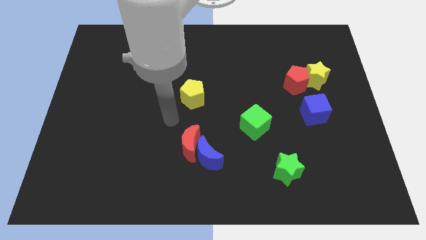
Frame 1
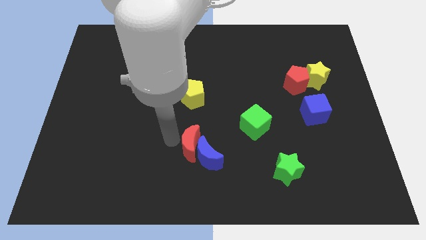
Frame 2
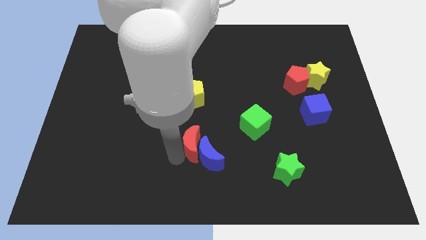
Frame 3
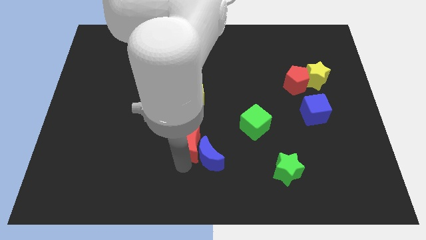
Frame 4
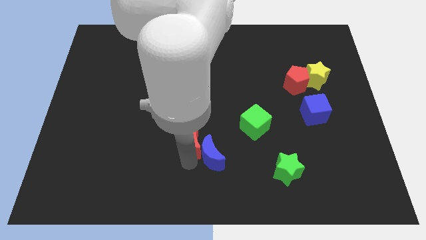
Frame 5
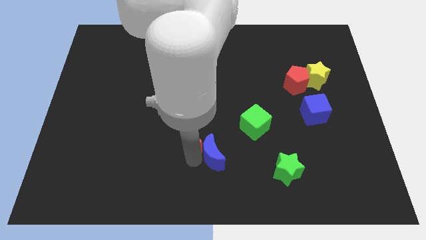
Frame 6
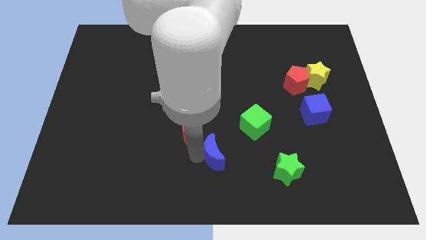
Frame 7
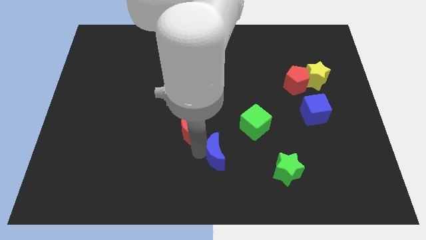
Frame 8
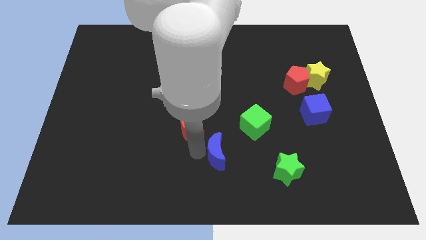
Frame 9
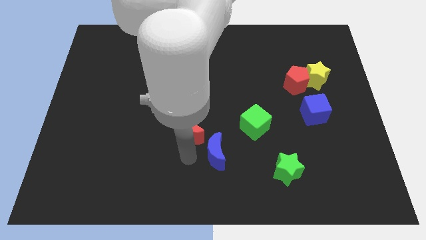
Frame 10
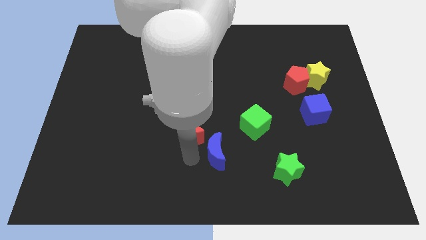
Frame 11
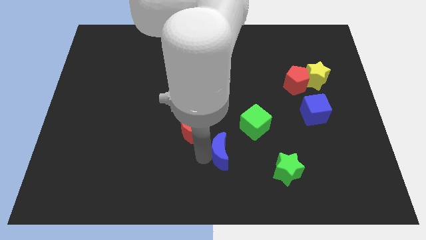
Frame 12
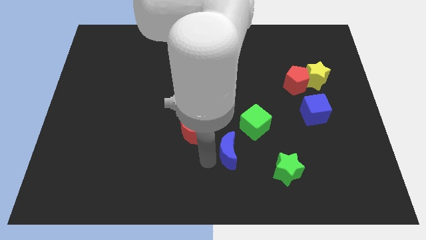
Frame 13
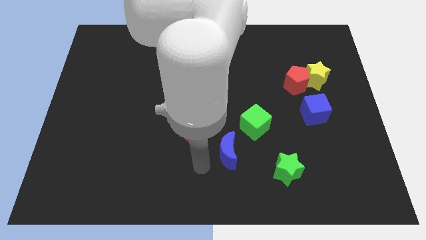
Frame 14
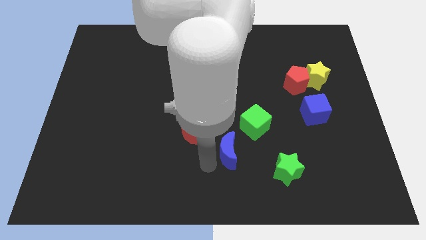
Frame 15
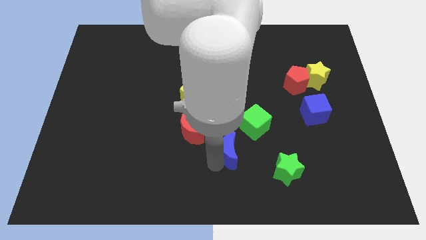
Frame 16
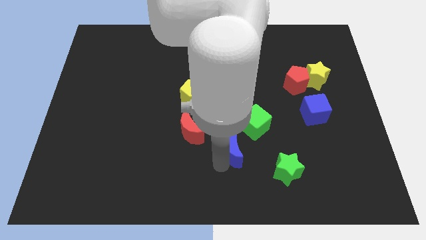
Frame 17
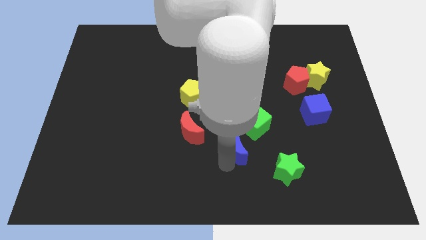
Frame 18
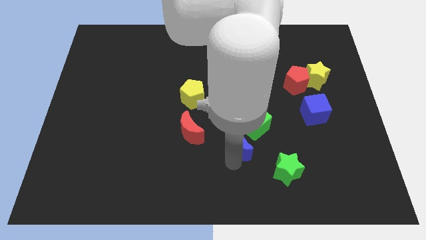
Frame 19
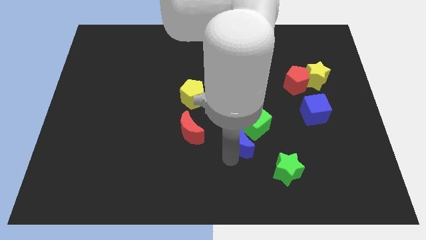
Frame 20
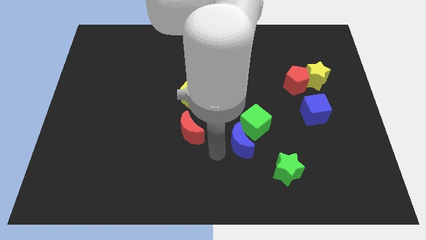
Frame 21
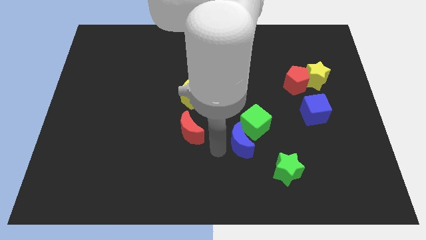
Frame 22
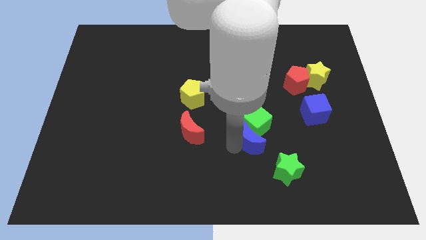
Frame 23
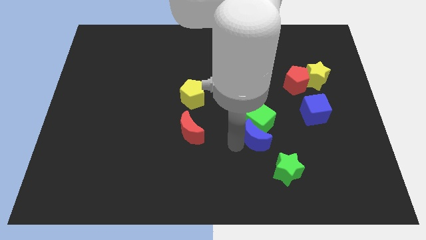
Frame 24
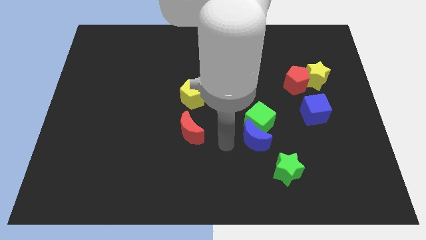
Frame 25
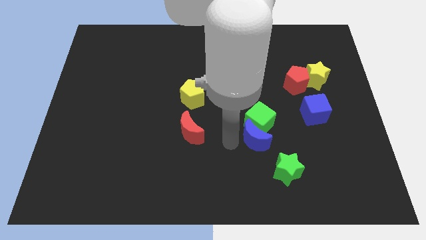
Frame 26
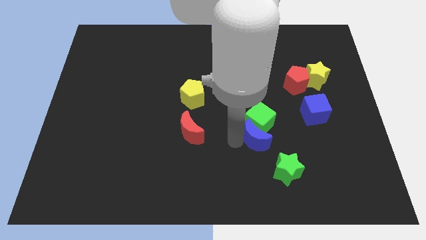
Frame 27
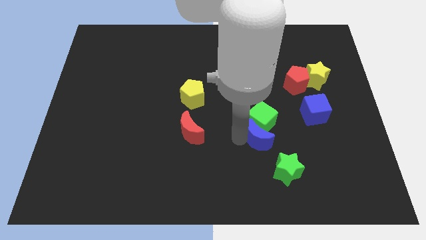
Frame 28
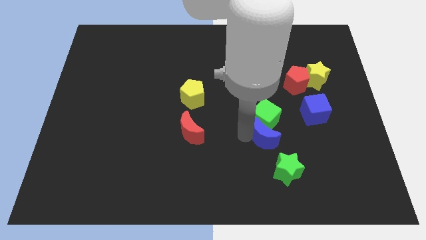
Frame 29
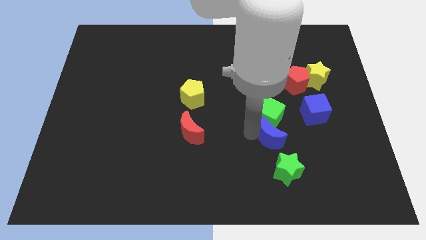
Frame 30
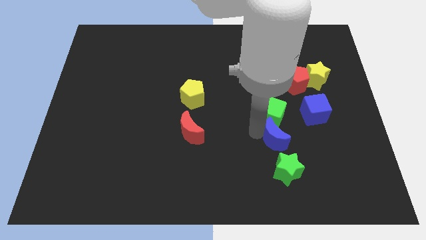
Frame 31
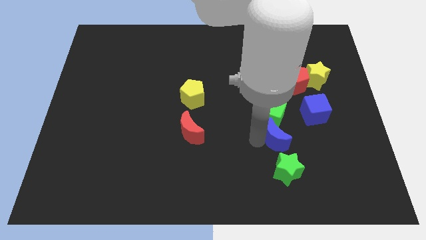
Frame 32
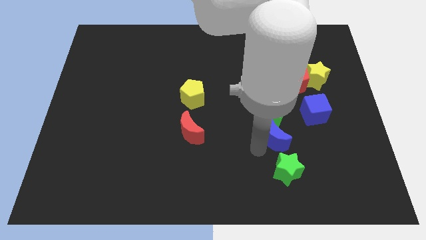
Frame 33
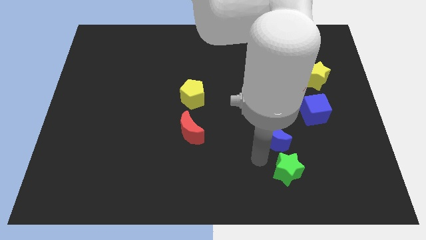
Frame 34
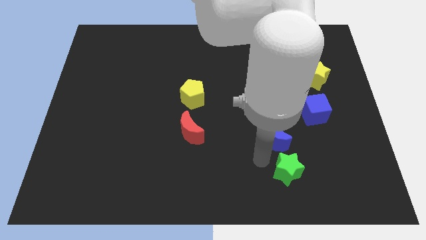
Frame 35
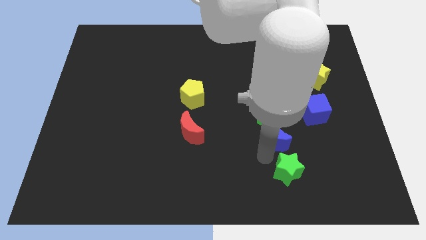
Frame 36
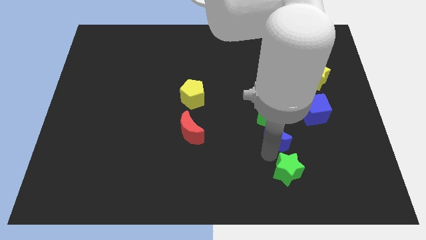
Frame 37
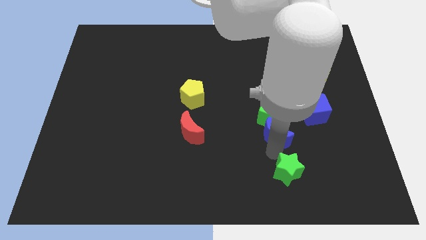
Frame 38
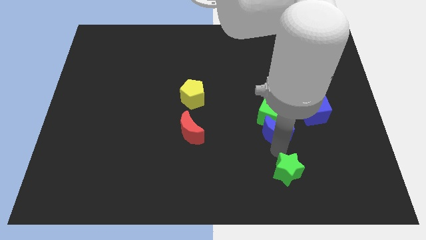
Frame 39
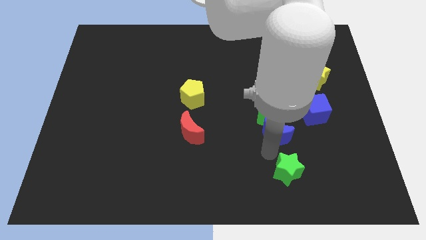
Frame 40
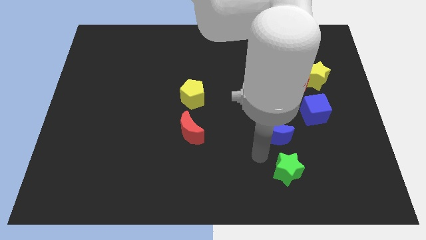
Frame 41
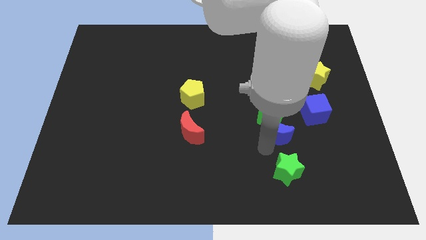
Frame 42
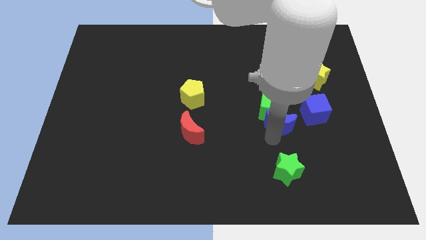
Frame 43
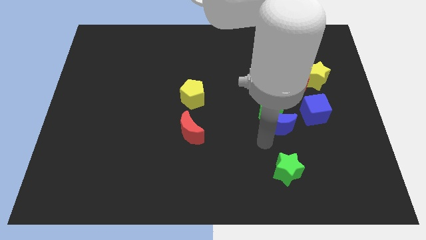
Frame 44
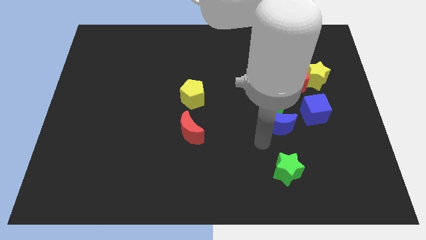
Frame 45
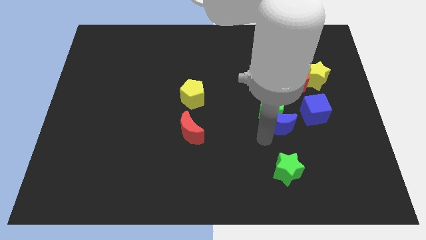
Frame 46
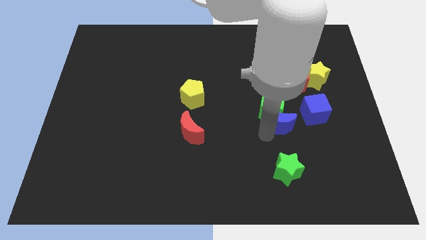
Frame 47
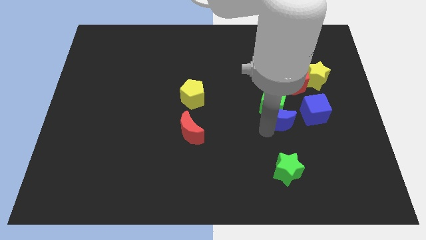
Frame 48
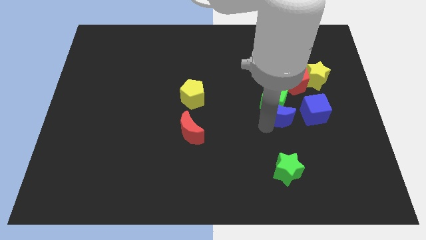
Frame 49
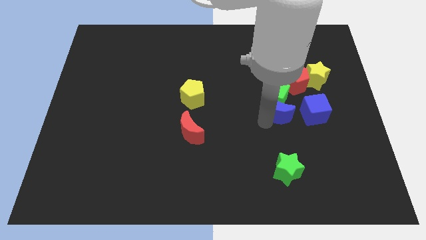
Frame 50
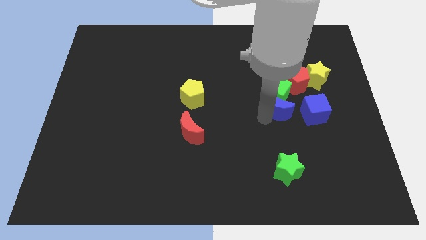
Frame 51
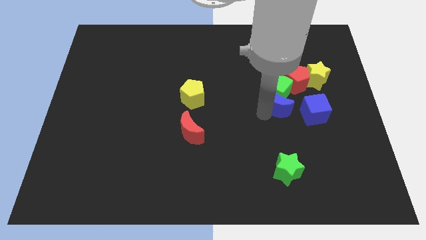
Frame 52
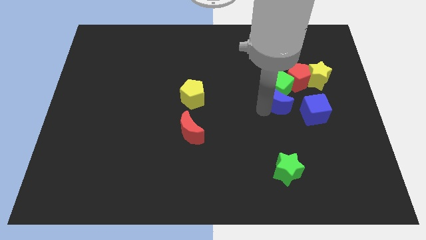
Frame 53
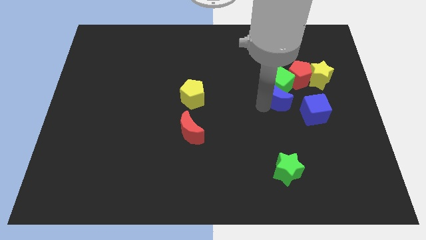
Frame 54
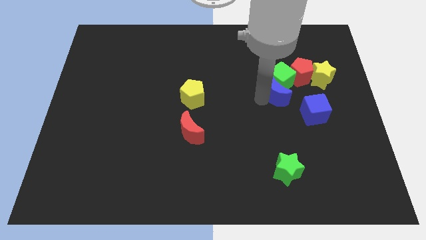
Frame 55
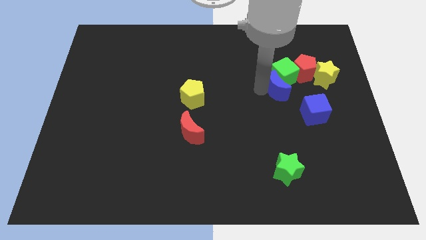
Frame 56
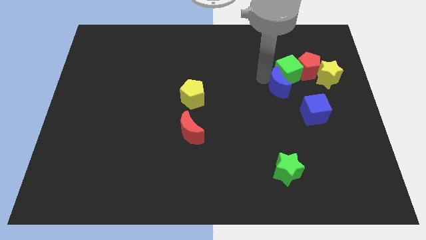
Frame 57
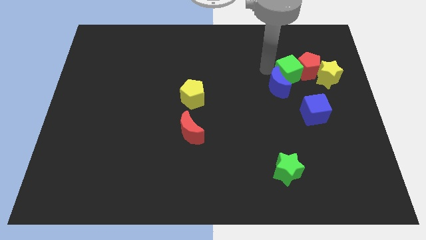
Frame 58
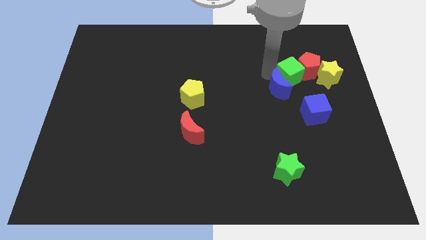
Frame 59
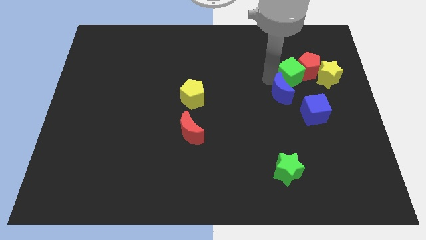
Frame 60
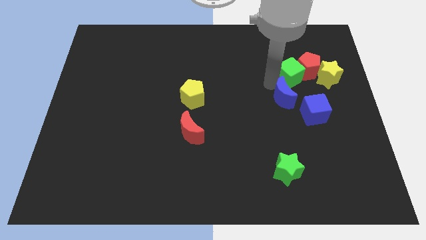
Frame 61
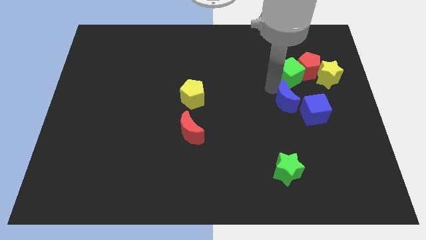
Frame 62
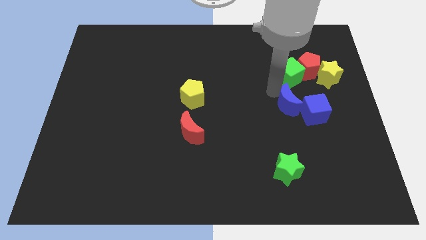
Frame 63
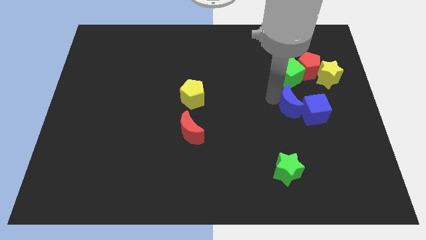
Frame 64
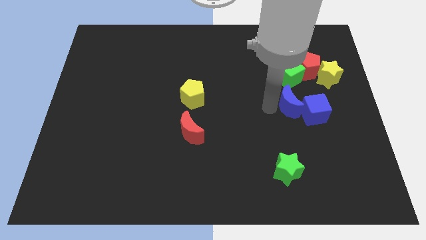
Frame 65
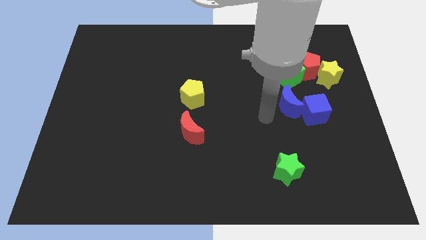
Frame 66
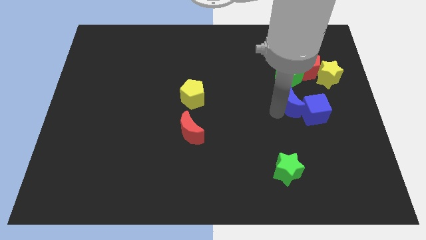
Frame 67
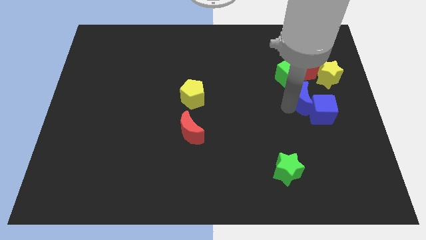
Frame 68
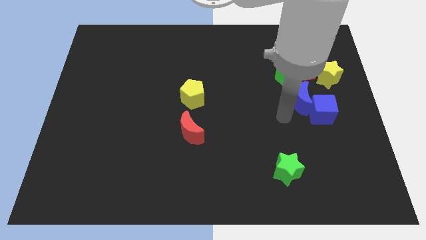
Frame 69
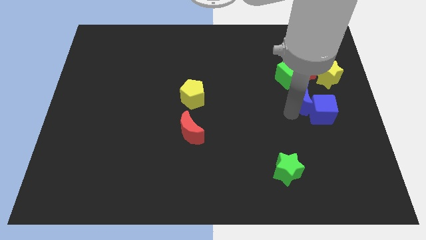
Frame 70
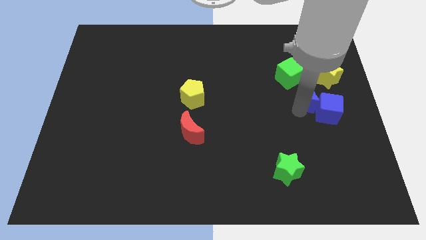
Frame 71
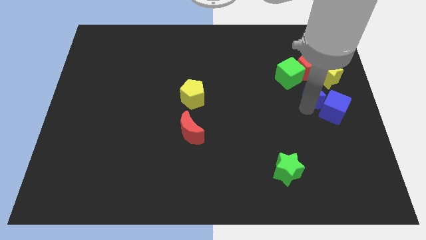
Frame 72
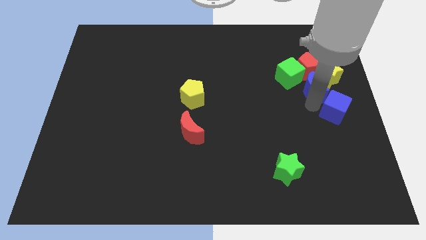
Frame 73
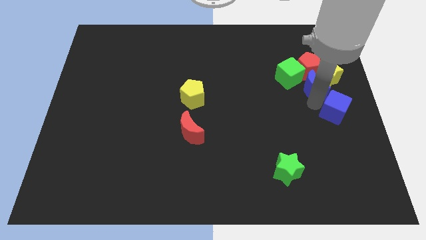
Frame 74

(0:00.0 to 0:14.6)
put the blue moon close to the yellow star

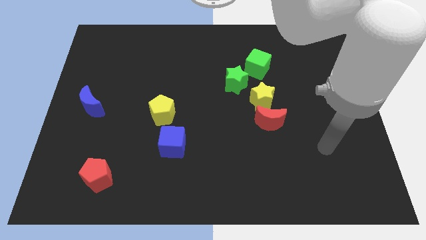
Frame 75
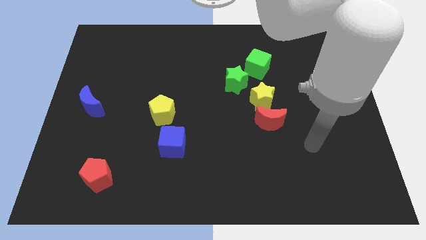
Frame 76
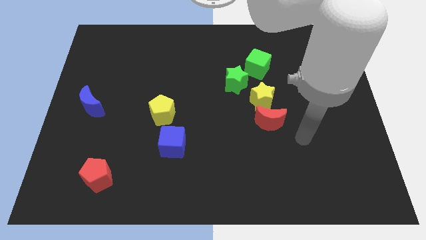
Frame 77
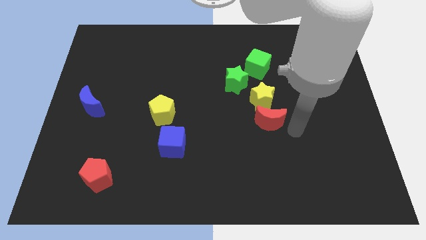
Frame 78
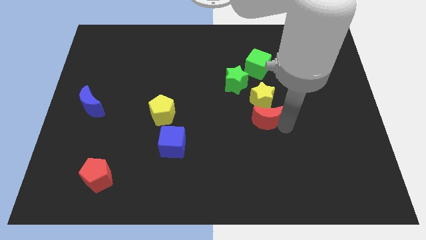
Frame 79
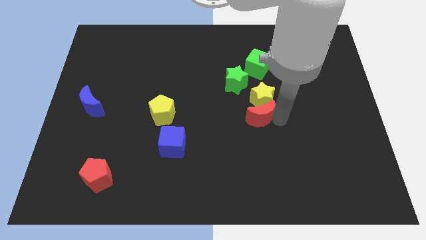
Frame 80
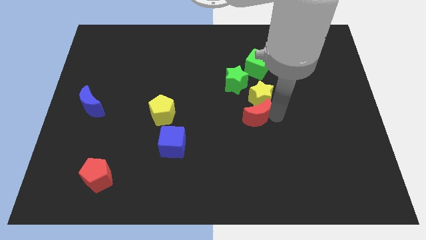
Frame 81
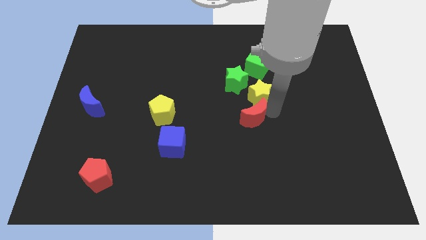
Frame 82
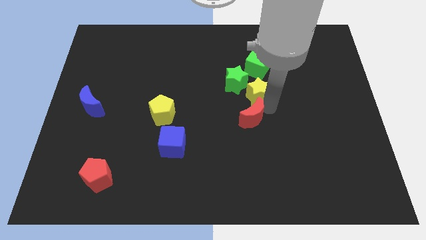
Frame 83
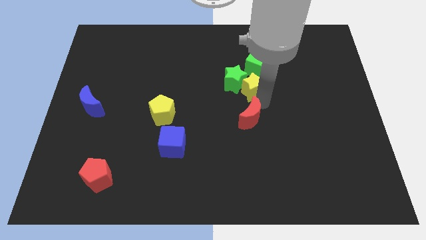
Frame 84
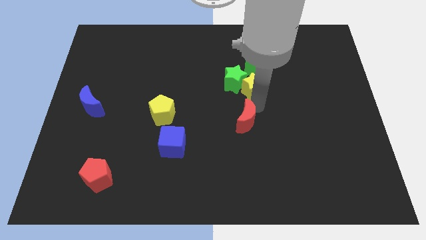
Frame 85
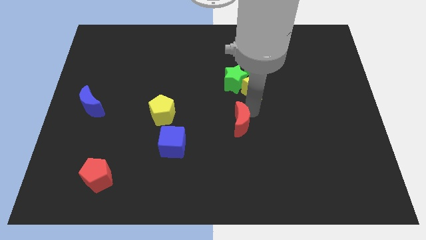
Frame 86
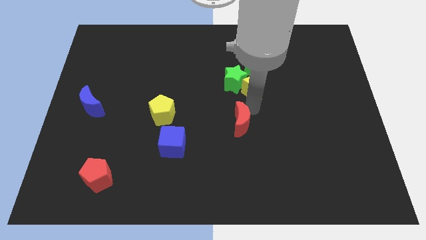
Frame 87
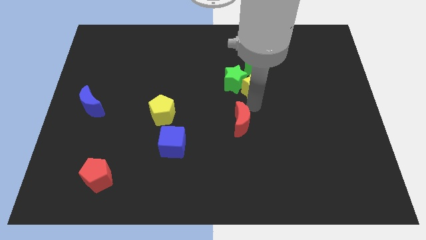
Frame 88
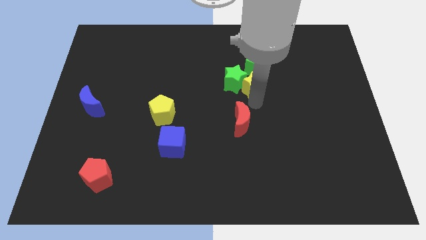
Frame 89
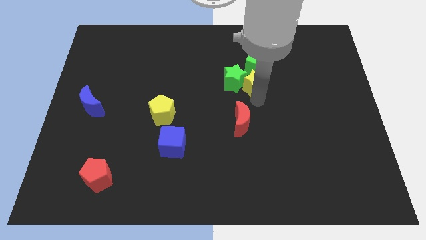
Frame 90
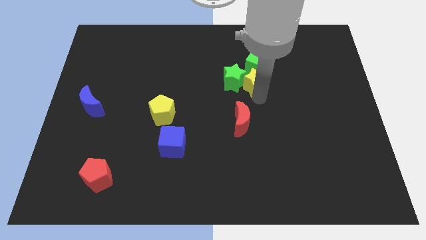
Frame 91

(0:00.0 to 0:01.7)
move the yellow star to the green cube
